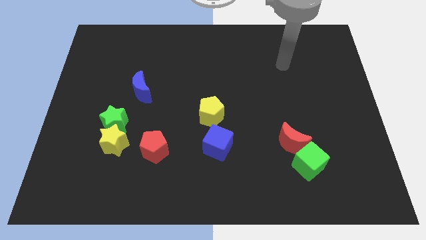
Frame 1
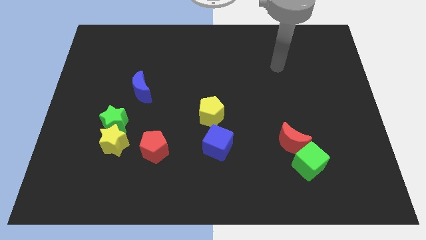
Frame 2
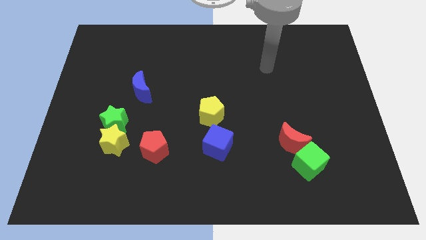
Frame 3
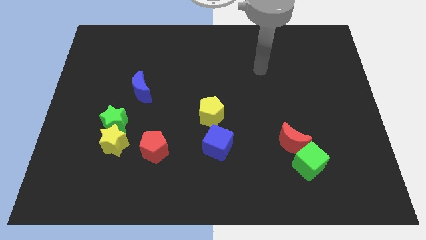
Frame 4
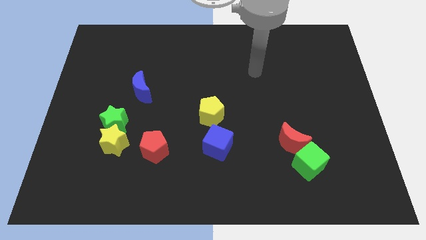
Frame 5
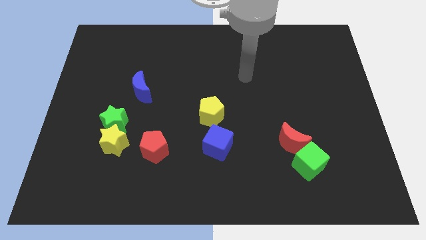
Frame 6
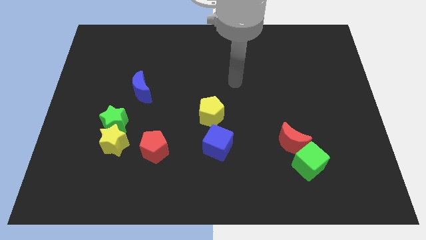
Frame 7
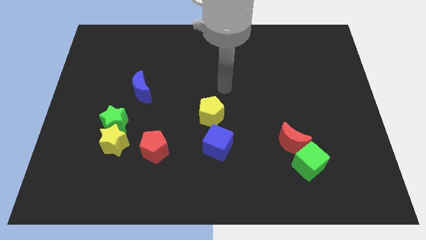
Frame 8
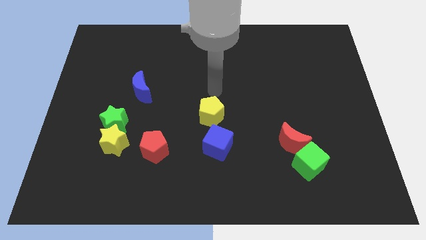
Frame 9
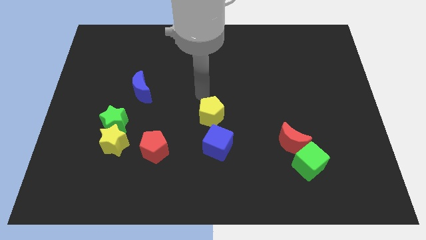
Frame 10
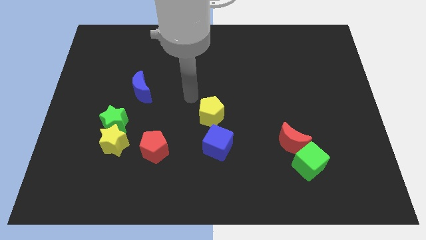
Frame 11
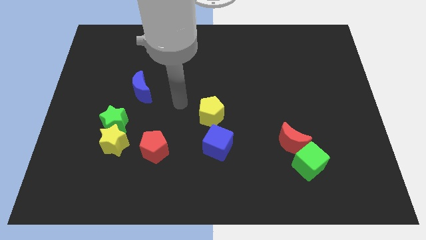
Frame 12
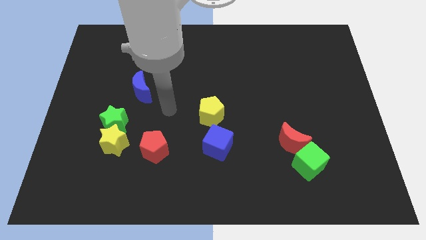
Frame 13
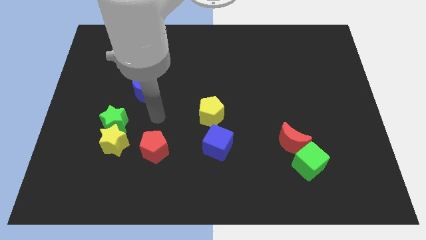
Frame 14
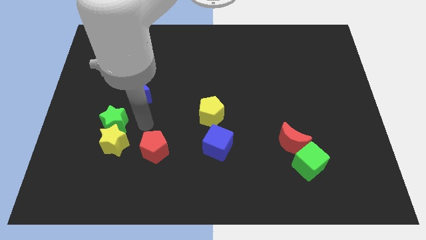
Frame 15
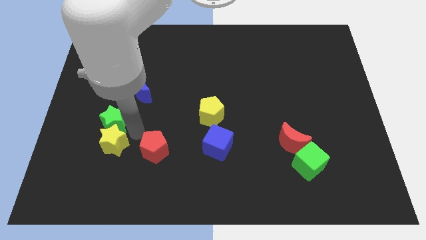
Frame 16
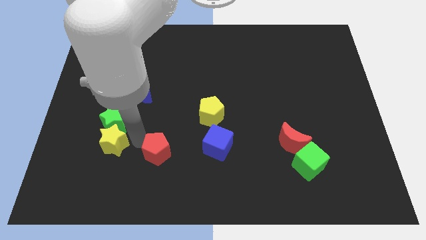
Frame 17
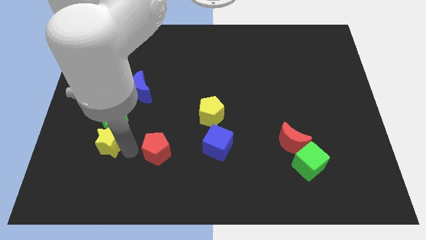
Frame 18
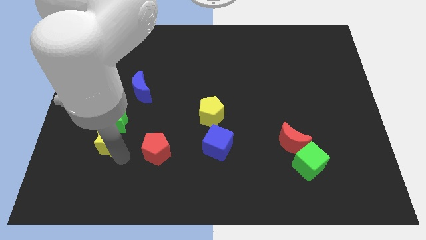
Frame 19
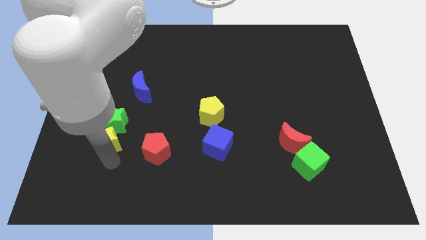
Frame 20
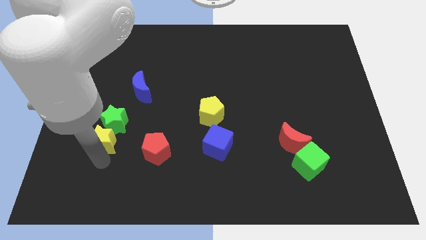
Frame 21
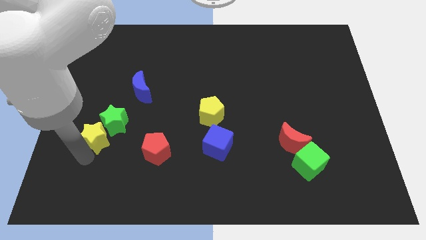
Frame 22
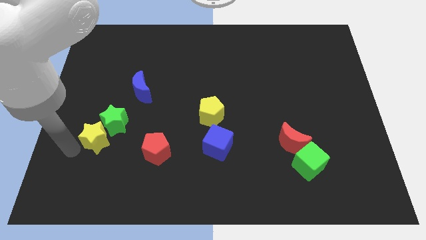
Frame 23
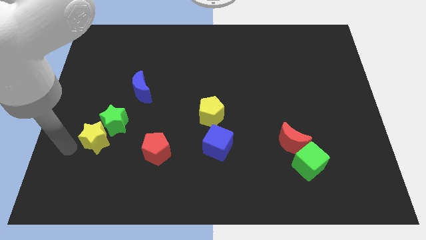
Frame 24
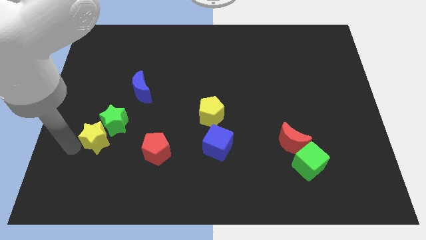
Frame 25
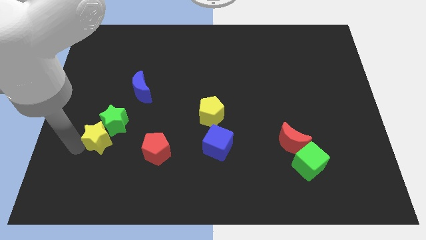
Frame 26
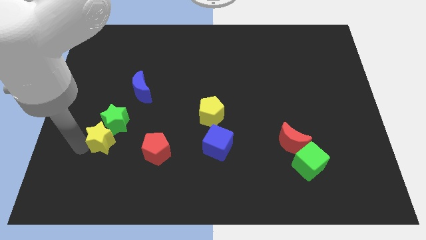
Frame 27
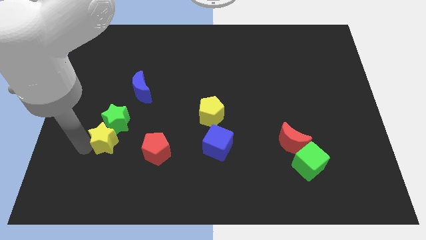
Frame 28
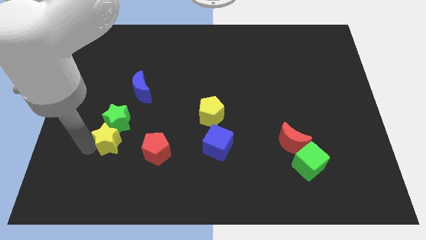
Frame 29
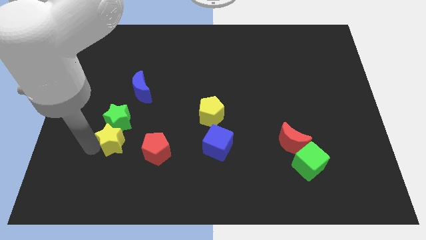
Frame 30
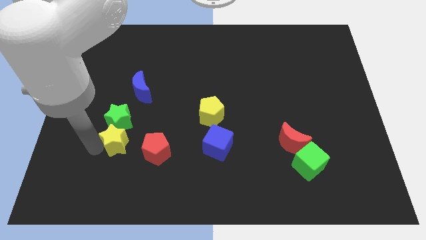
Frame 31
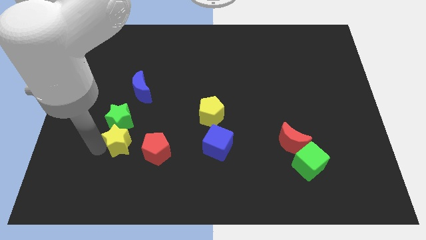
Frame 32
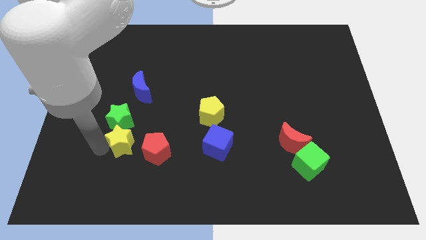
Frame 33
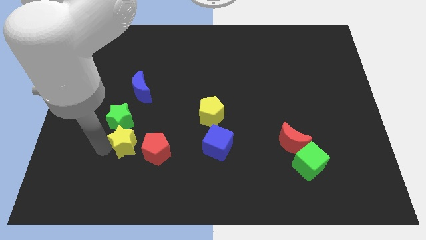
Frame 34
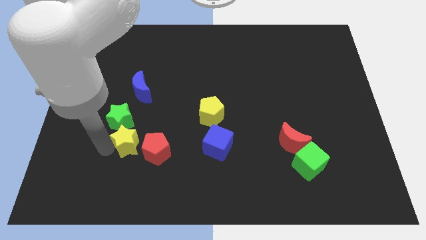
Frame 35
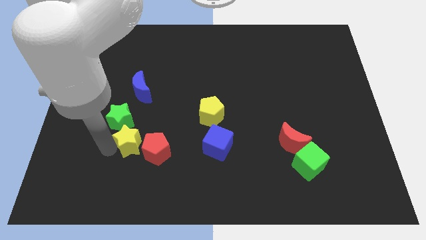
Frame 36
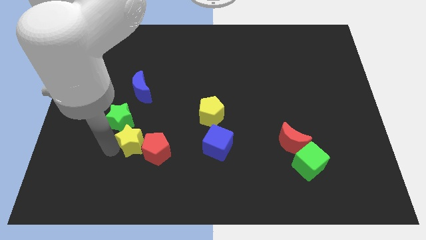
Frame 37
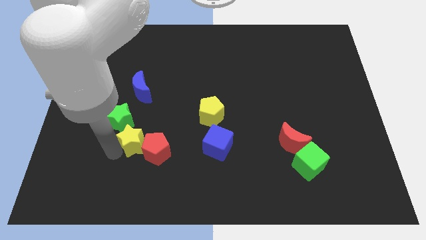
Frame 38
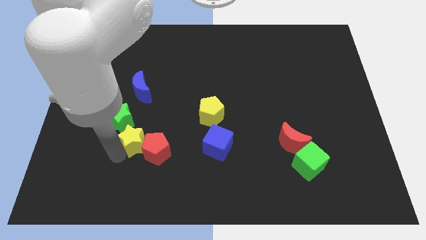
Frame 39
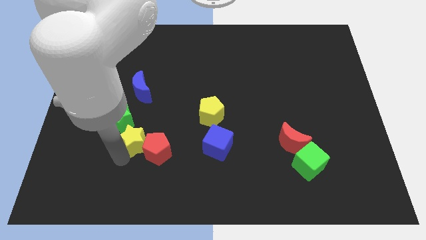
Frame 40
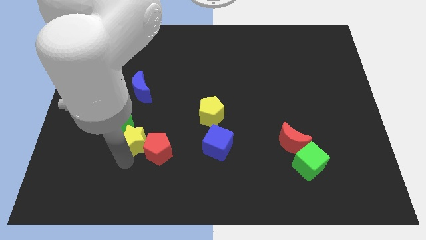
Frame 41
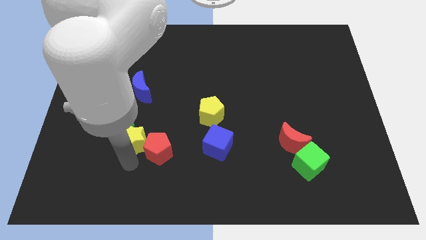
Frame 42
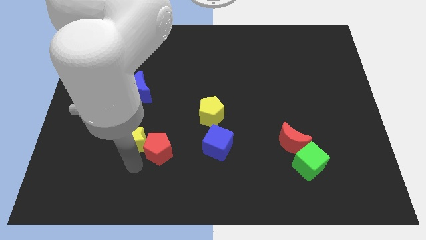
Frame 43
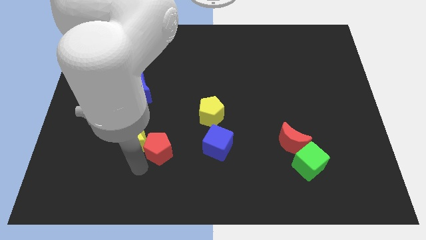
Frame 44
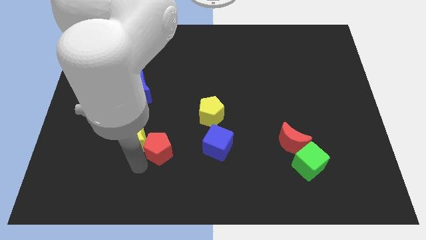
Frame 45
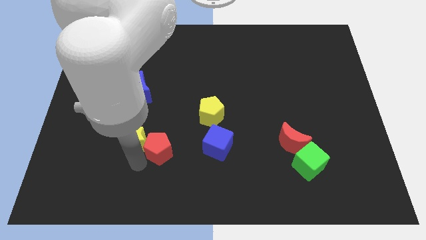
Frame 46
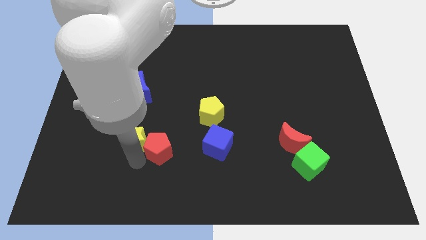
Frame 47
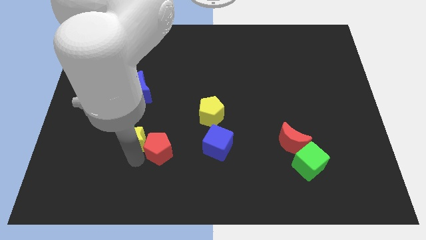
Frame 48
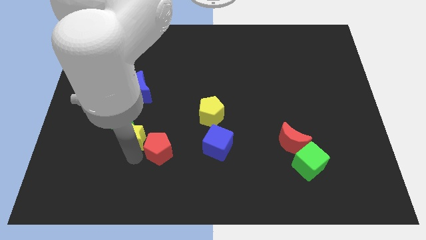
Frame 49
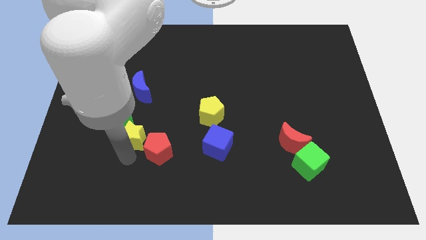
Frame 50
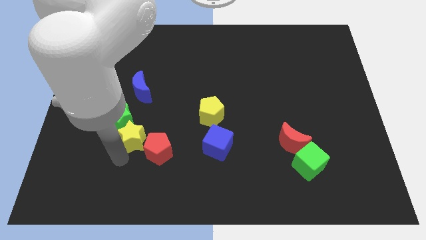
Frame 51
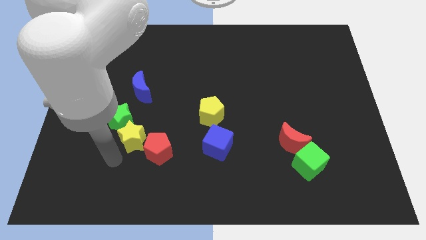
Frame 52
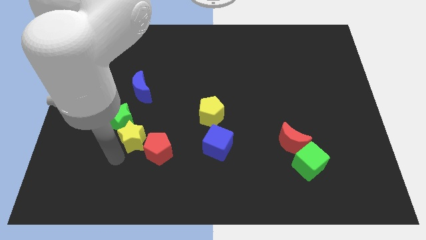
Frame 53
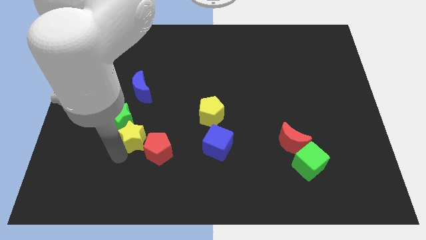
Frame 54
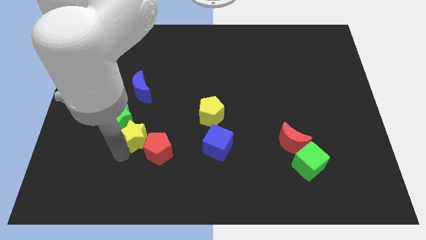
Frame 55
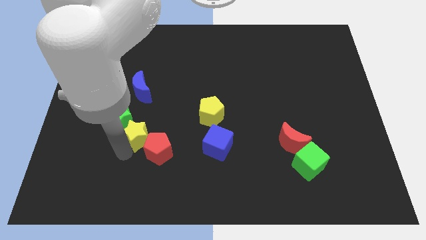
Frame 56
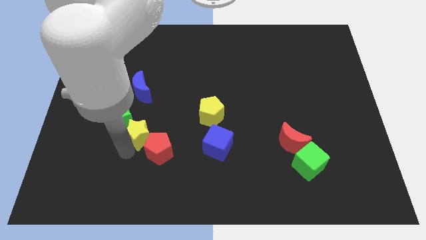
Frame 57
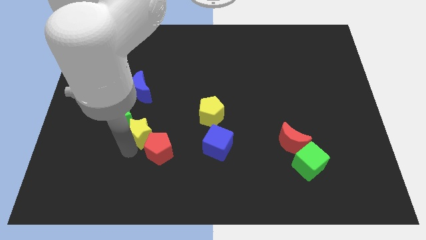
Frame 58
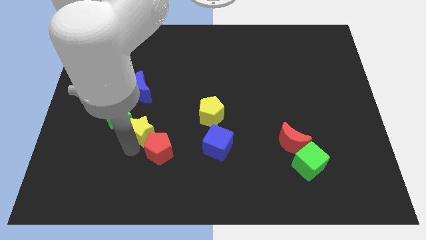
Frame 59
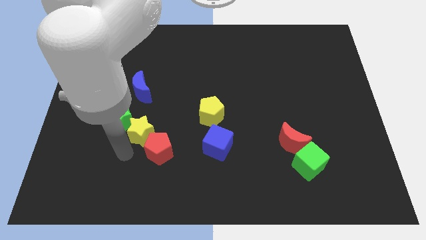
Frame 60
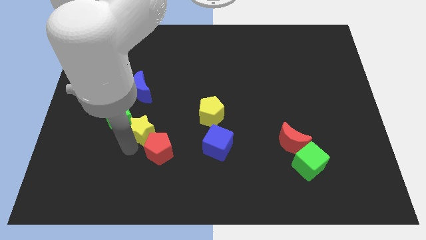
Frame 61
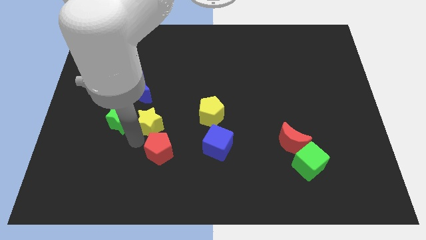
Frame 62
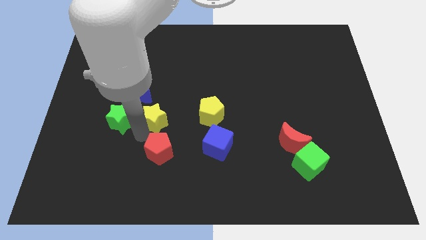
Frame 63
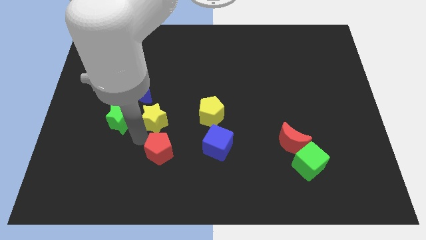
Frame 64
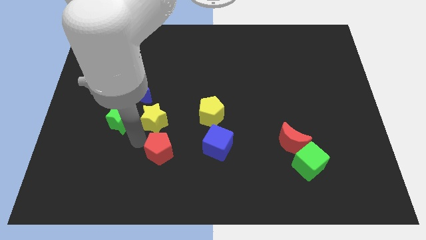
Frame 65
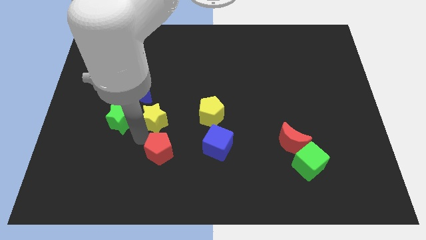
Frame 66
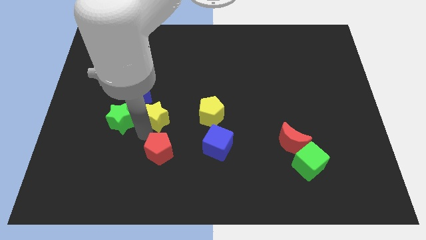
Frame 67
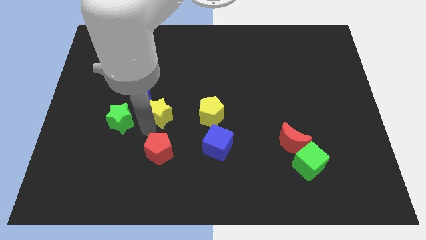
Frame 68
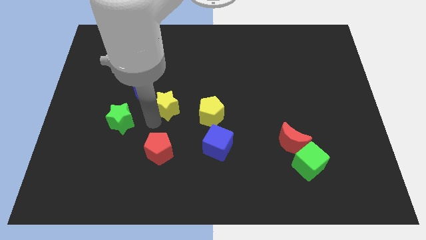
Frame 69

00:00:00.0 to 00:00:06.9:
slide the yellow star to the center
